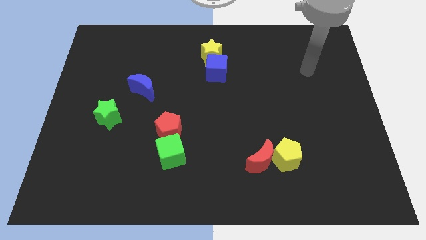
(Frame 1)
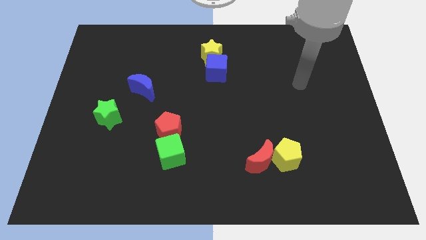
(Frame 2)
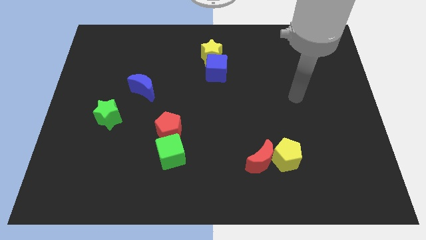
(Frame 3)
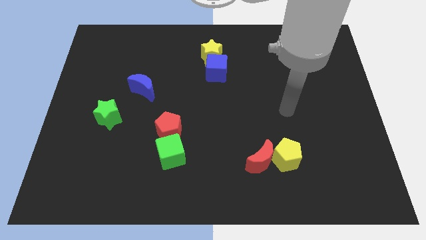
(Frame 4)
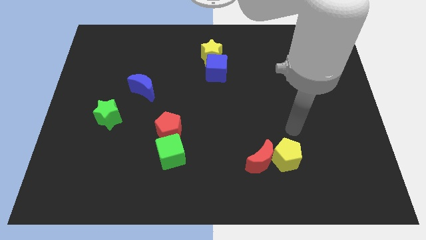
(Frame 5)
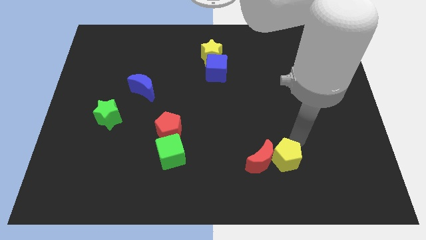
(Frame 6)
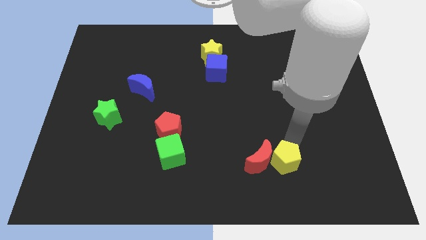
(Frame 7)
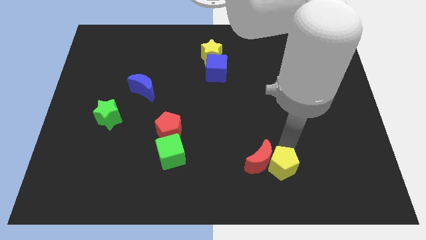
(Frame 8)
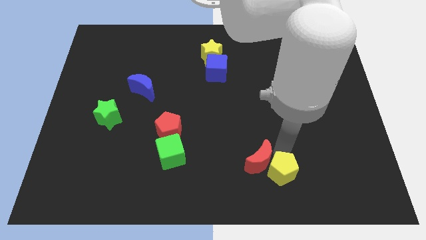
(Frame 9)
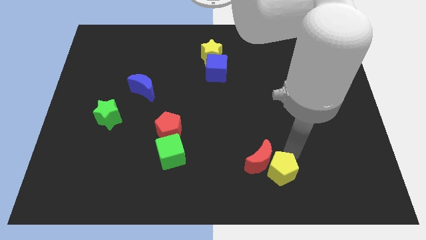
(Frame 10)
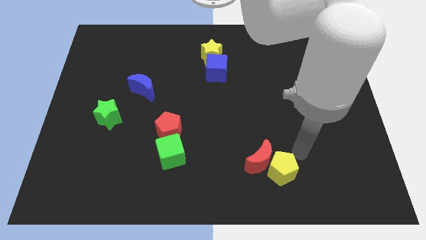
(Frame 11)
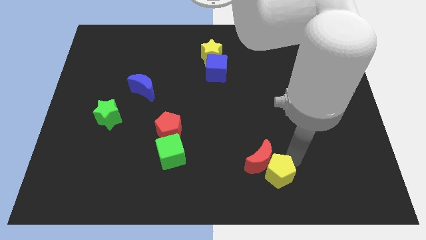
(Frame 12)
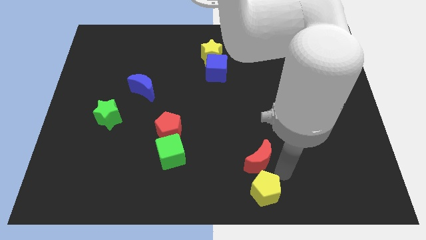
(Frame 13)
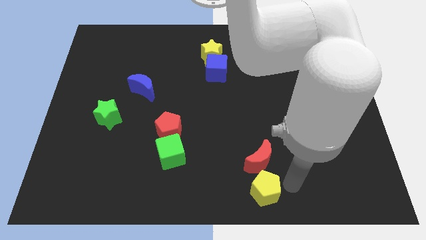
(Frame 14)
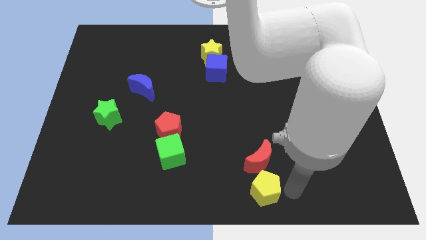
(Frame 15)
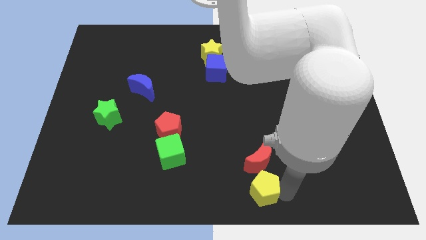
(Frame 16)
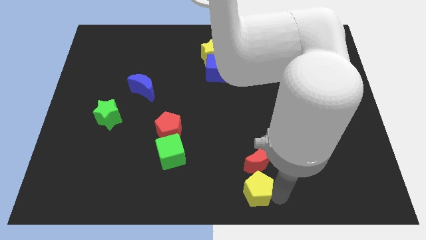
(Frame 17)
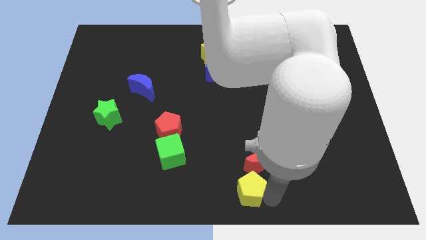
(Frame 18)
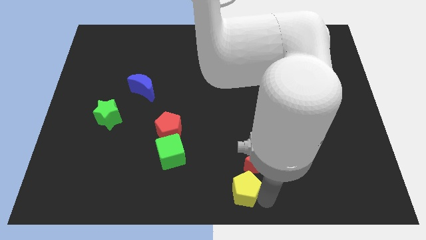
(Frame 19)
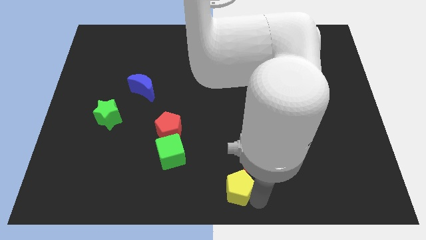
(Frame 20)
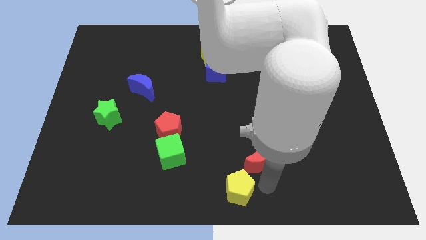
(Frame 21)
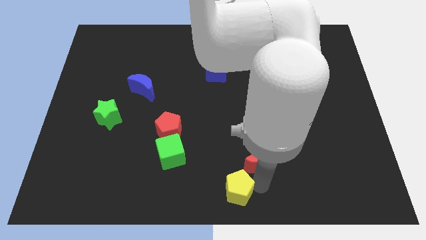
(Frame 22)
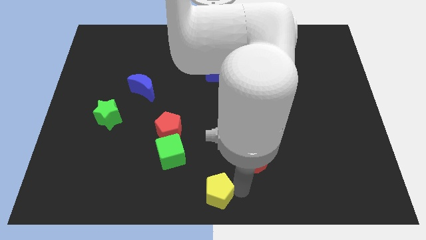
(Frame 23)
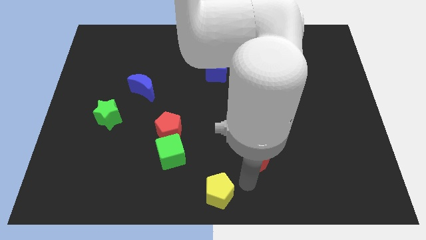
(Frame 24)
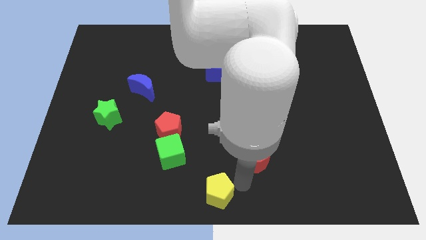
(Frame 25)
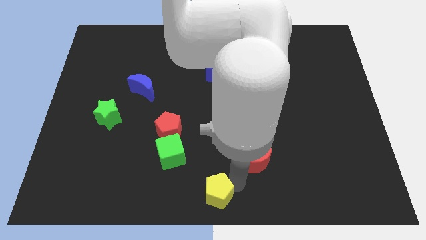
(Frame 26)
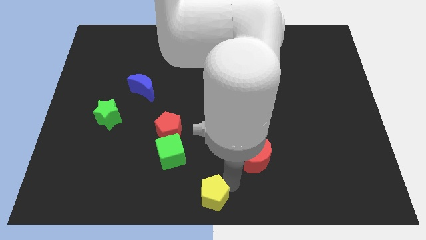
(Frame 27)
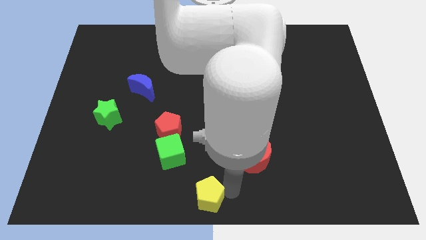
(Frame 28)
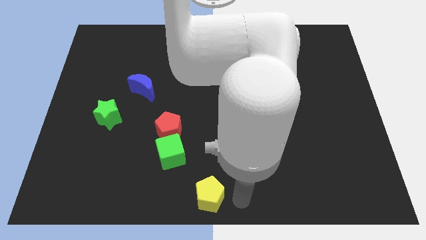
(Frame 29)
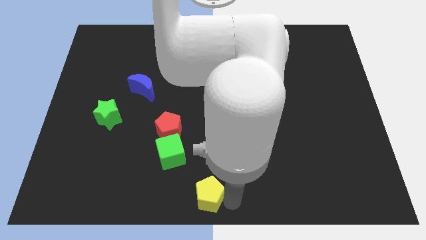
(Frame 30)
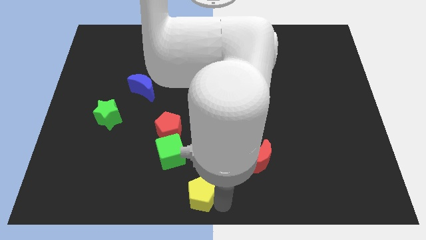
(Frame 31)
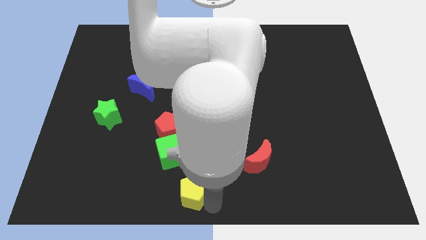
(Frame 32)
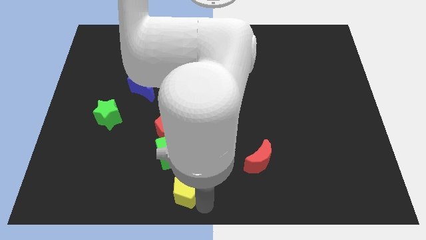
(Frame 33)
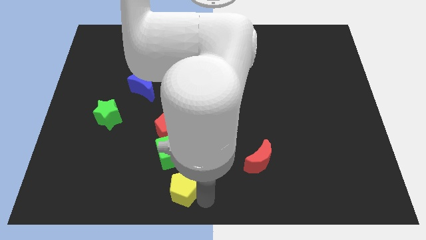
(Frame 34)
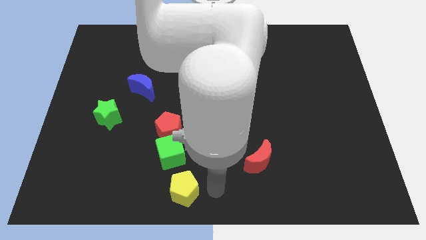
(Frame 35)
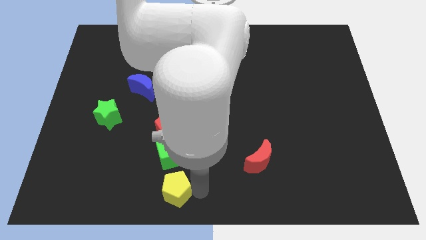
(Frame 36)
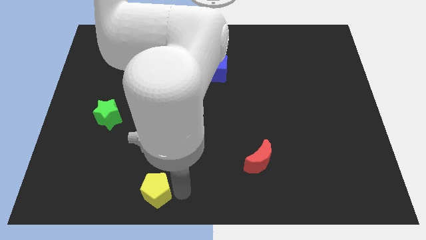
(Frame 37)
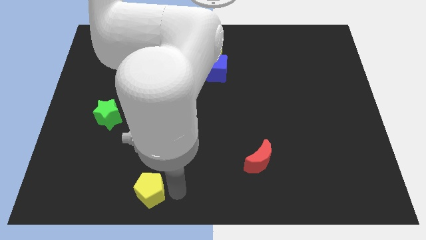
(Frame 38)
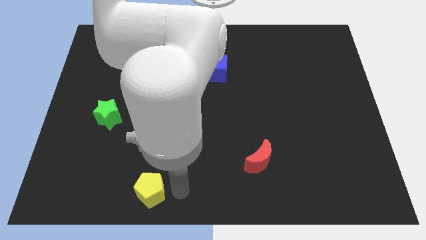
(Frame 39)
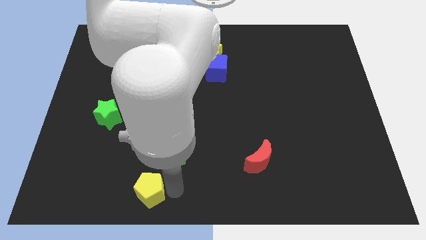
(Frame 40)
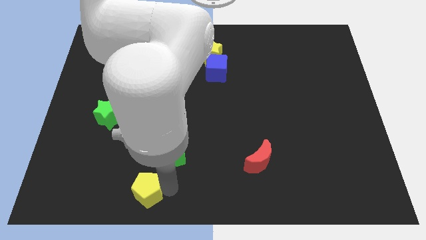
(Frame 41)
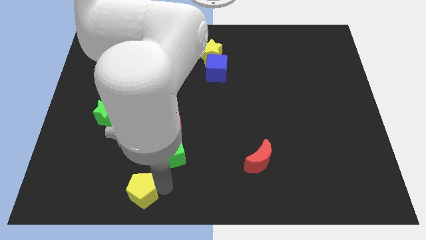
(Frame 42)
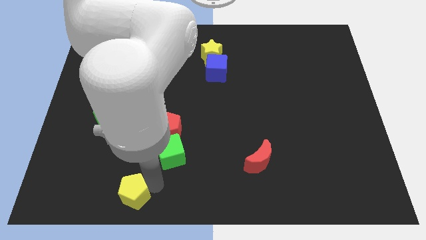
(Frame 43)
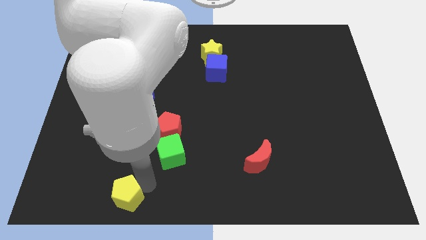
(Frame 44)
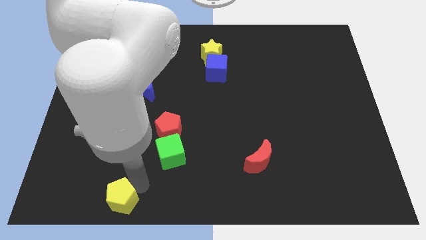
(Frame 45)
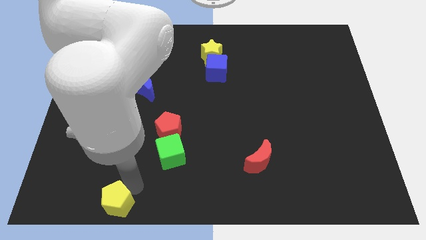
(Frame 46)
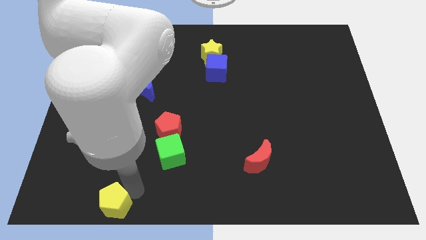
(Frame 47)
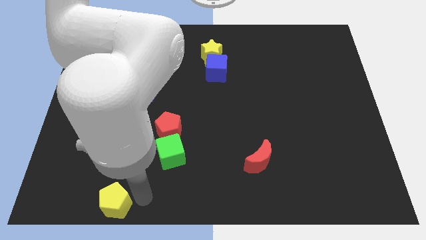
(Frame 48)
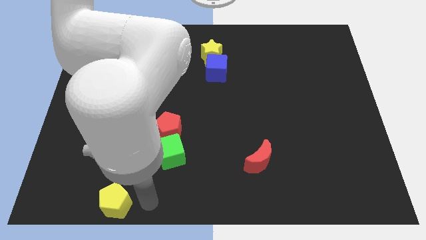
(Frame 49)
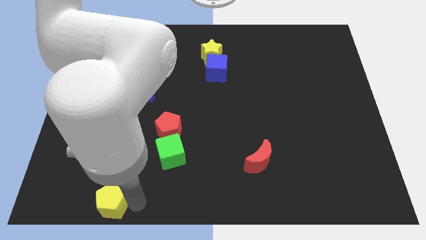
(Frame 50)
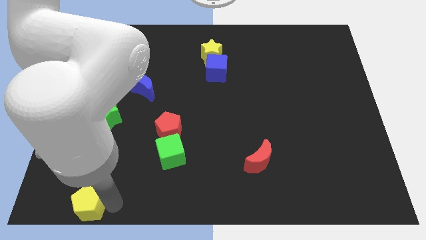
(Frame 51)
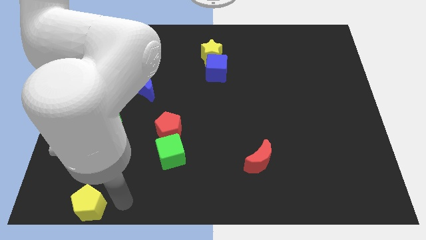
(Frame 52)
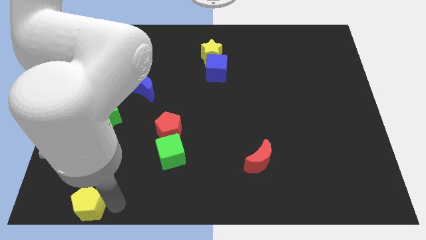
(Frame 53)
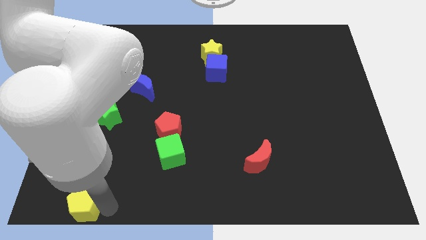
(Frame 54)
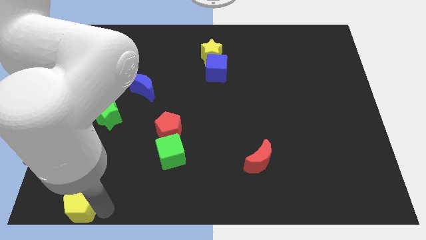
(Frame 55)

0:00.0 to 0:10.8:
slide the yellow pentagon to the lower left corner

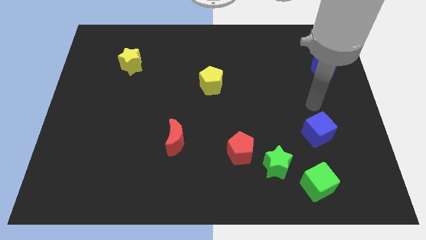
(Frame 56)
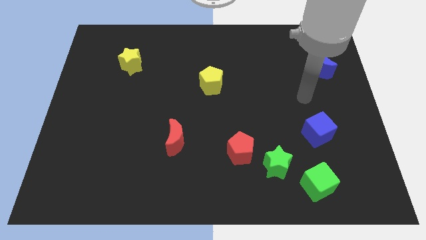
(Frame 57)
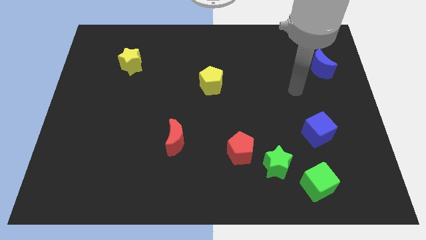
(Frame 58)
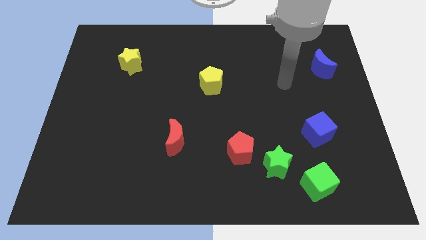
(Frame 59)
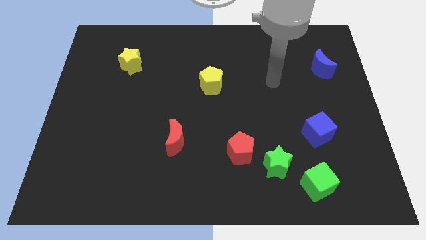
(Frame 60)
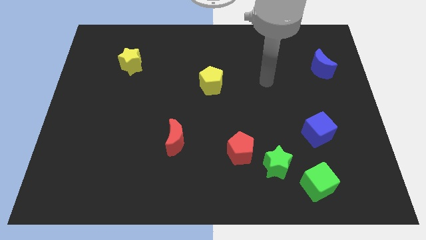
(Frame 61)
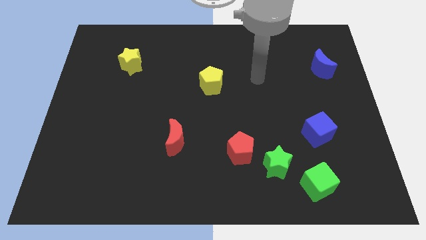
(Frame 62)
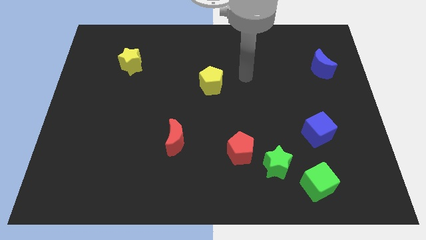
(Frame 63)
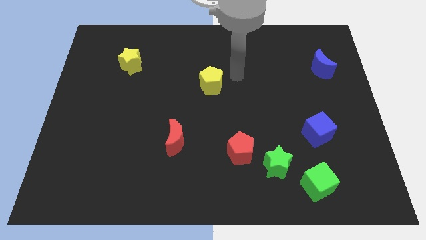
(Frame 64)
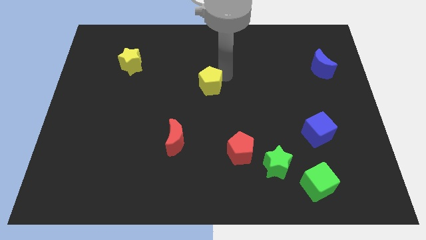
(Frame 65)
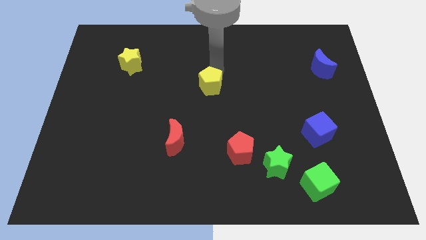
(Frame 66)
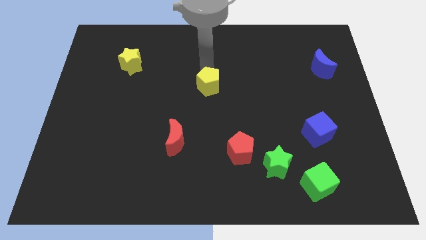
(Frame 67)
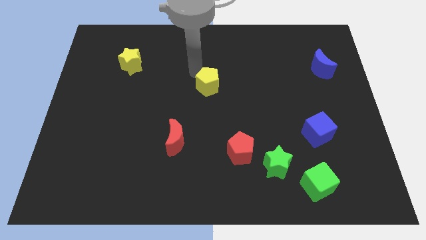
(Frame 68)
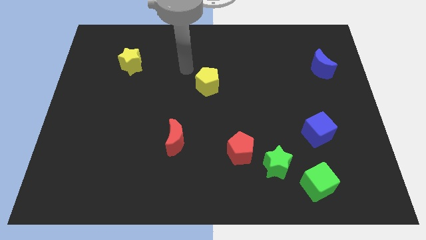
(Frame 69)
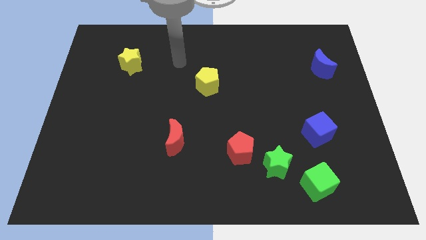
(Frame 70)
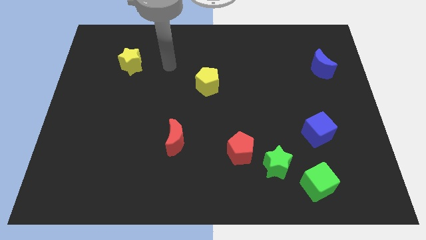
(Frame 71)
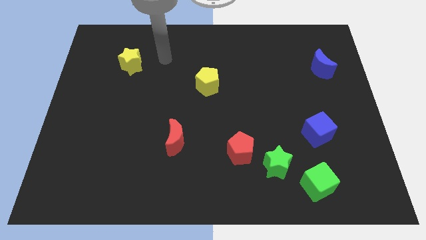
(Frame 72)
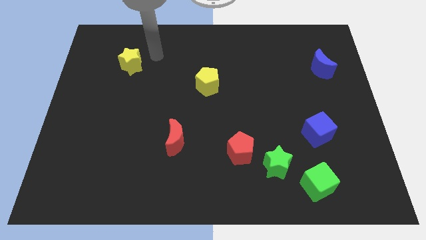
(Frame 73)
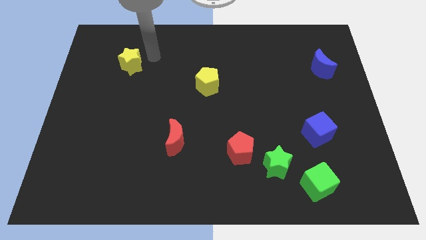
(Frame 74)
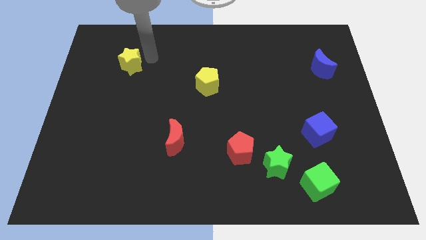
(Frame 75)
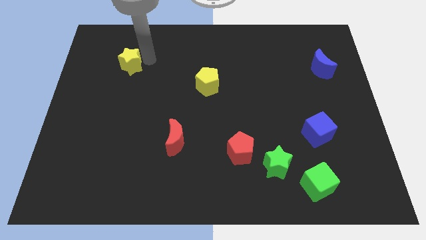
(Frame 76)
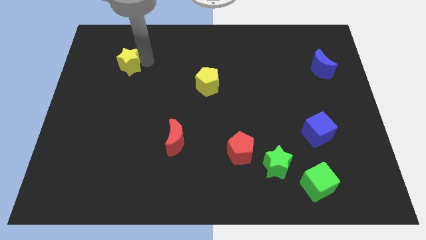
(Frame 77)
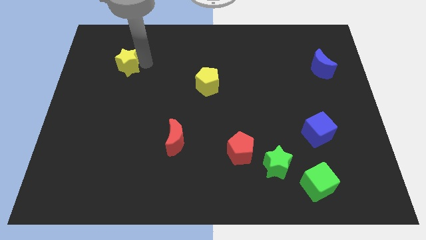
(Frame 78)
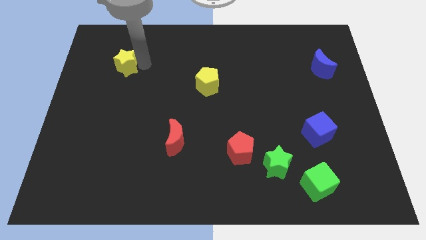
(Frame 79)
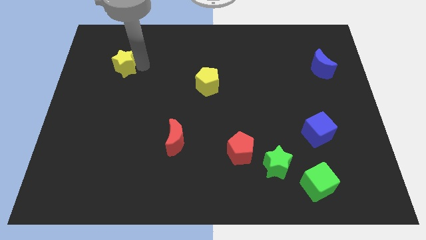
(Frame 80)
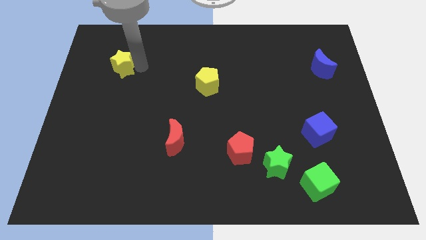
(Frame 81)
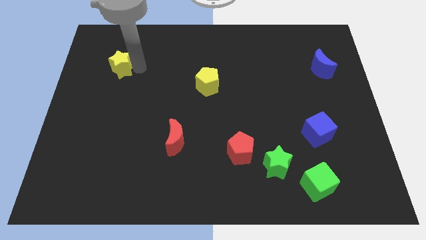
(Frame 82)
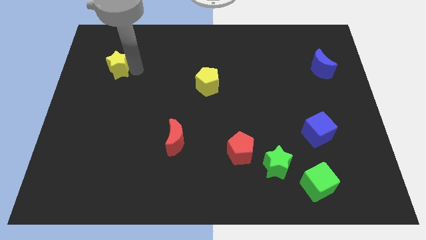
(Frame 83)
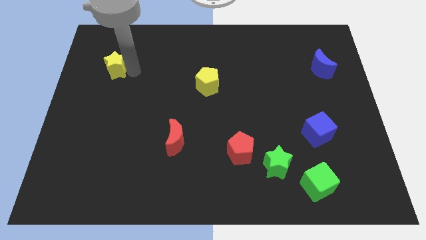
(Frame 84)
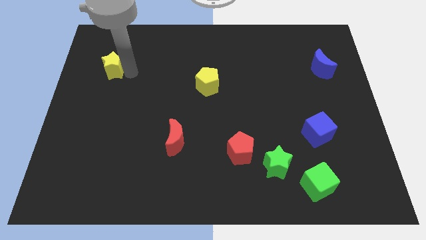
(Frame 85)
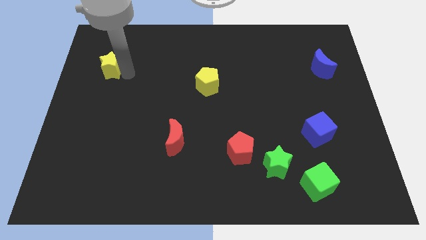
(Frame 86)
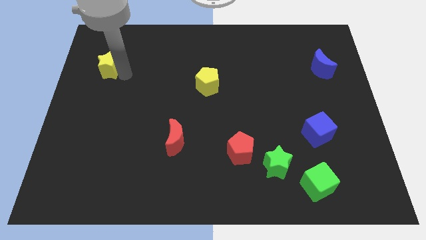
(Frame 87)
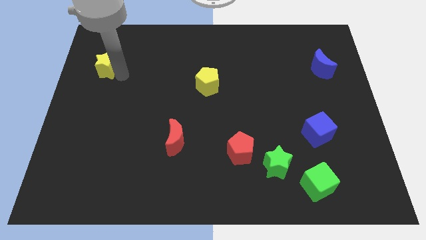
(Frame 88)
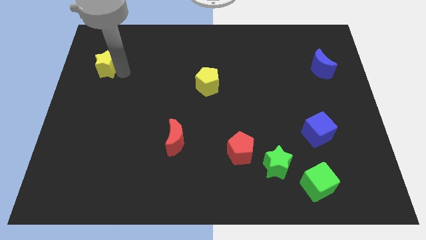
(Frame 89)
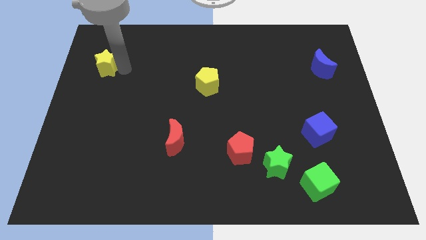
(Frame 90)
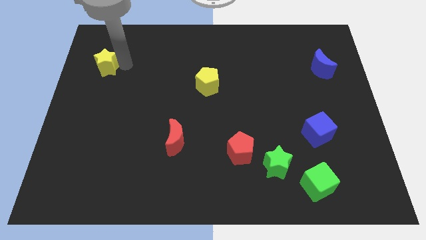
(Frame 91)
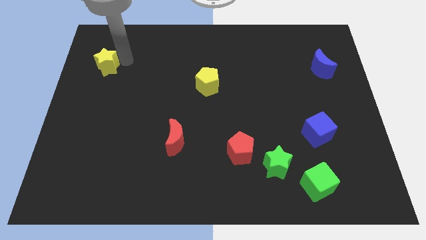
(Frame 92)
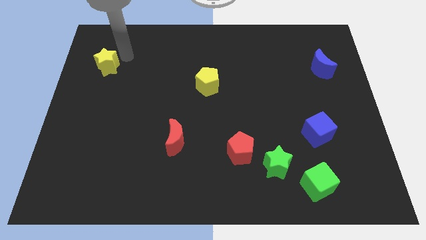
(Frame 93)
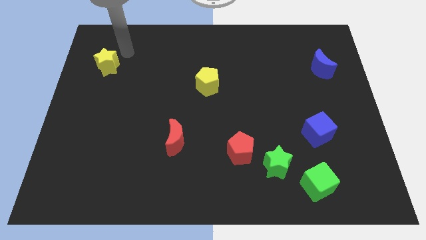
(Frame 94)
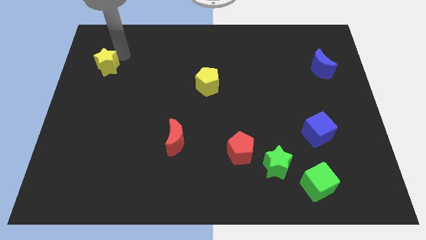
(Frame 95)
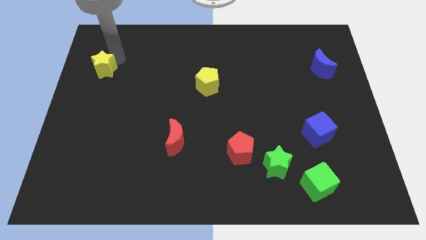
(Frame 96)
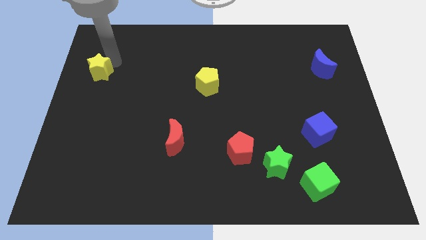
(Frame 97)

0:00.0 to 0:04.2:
put the yellow star to the left side
